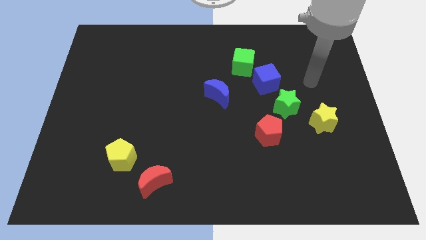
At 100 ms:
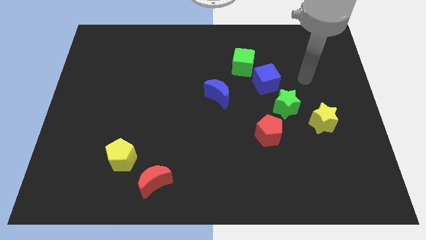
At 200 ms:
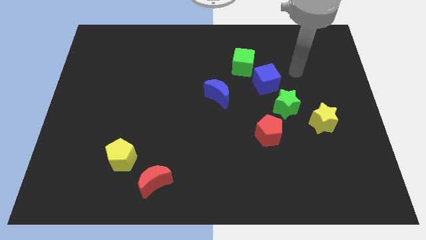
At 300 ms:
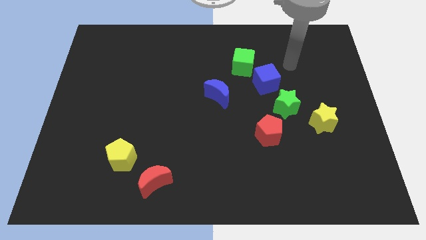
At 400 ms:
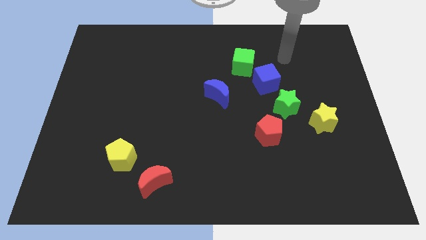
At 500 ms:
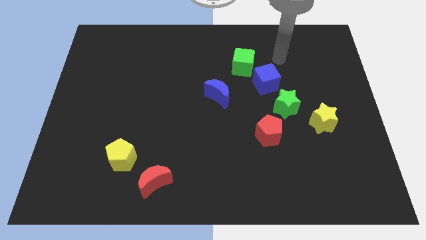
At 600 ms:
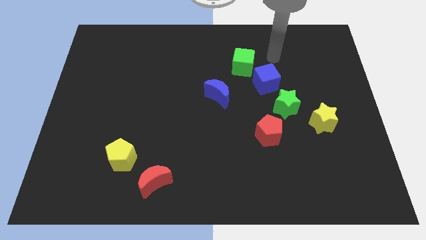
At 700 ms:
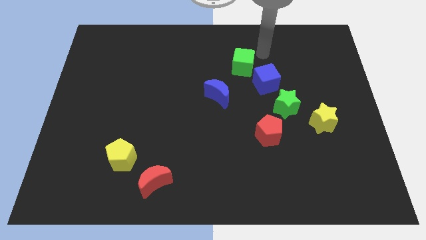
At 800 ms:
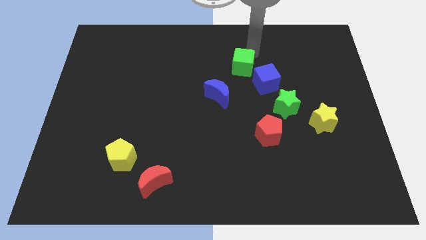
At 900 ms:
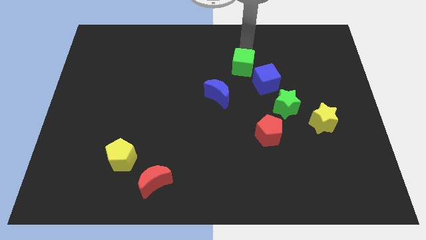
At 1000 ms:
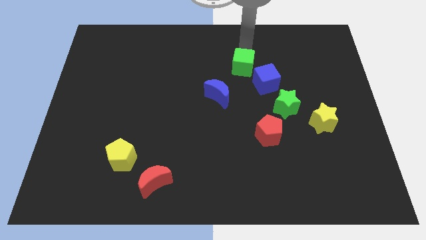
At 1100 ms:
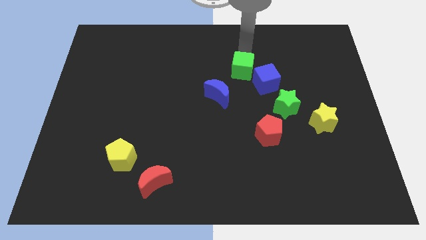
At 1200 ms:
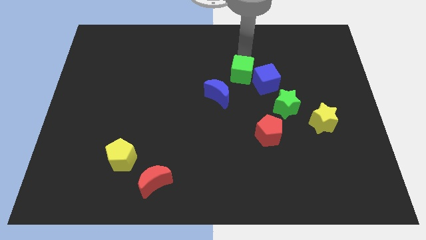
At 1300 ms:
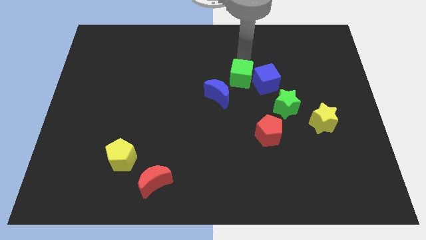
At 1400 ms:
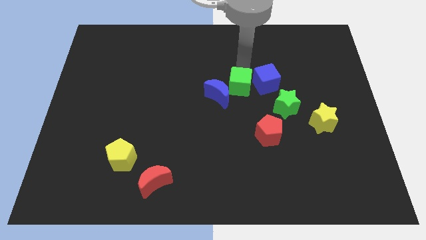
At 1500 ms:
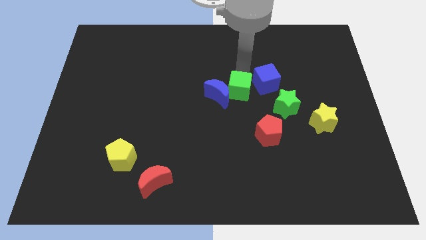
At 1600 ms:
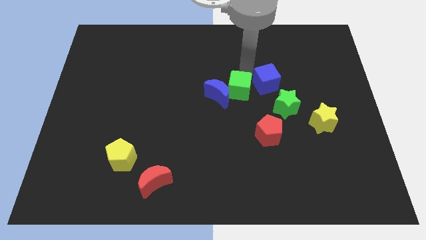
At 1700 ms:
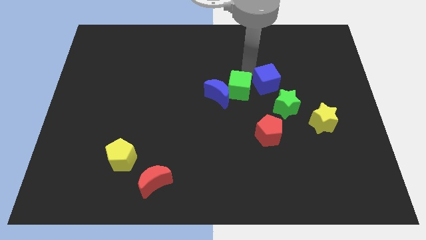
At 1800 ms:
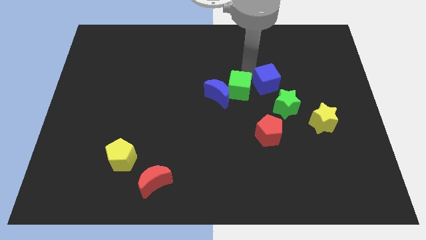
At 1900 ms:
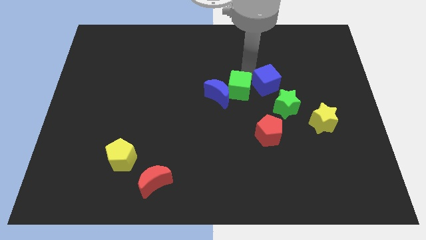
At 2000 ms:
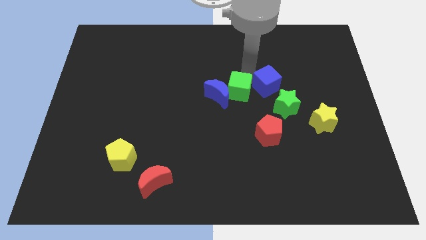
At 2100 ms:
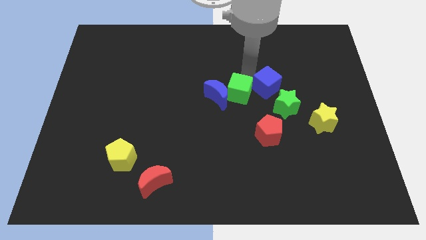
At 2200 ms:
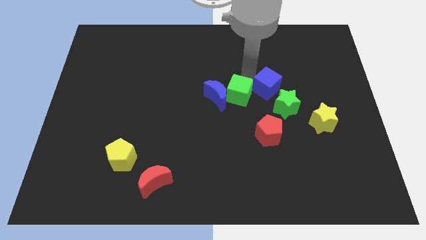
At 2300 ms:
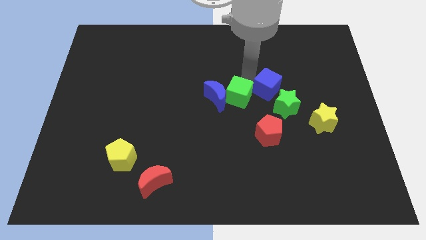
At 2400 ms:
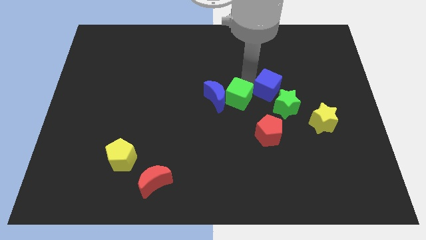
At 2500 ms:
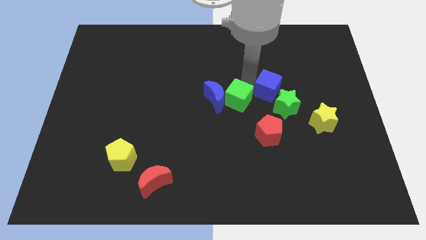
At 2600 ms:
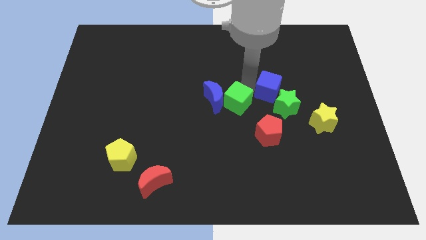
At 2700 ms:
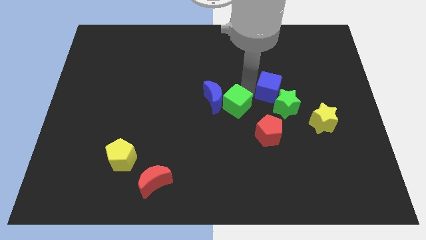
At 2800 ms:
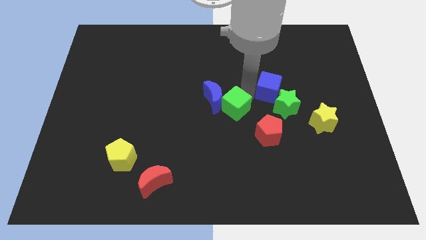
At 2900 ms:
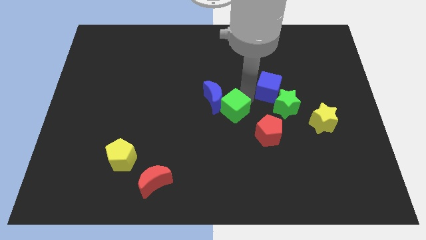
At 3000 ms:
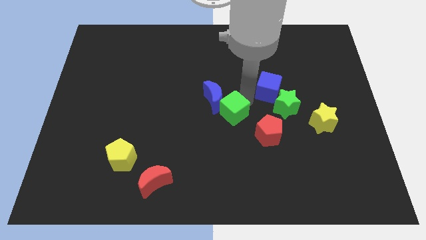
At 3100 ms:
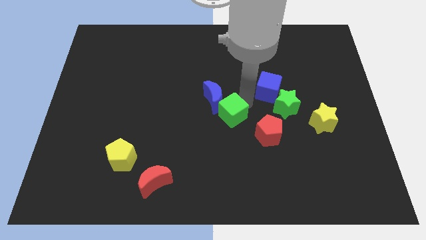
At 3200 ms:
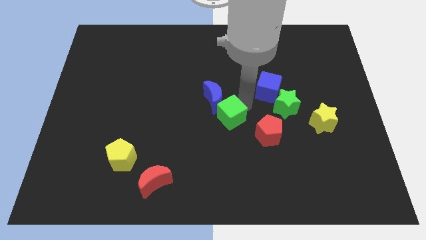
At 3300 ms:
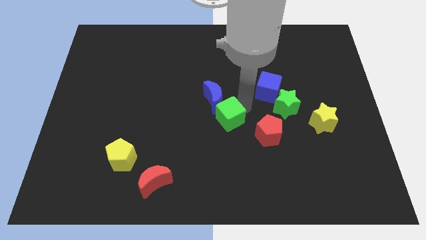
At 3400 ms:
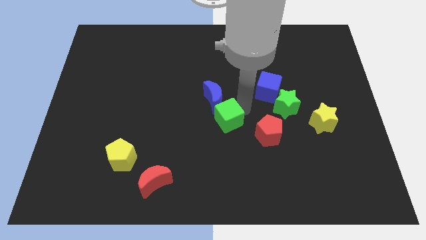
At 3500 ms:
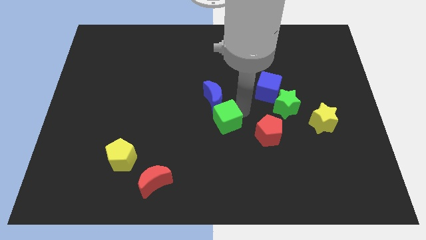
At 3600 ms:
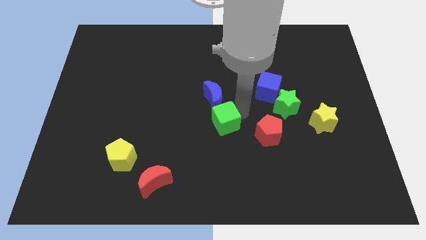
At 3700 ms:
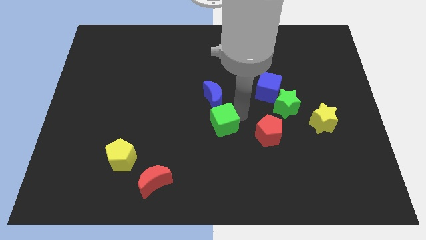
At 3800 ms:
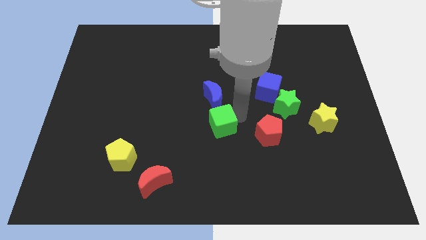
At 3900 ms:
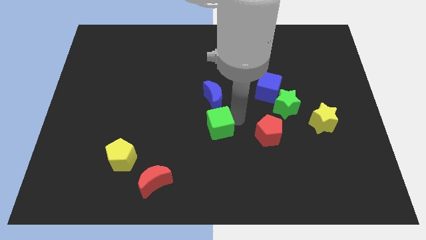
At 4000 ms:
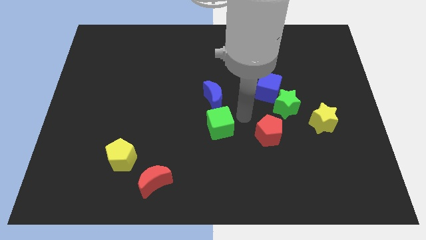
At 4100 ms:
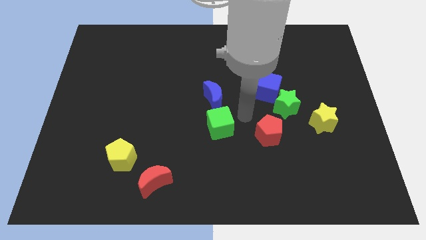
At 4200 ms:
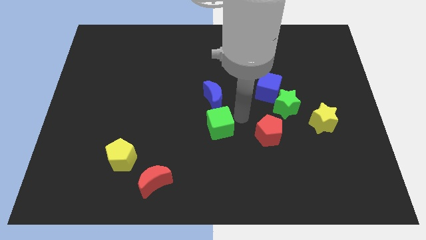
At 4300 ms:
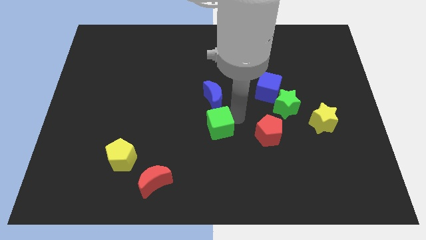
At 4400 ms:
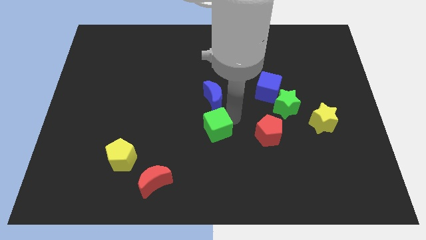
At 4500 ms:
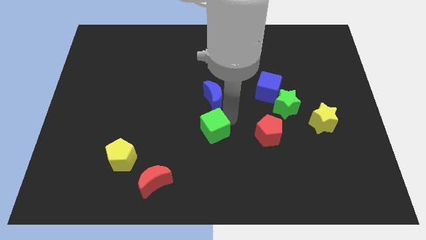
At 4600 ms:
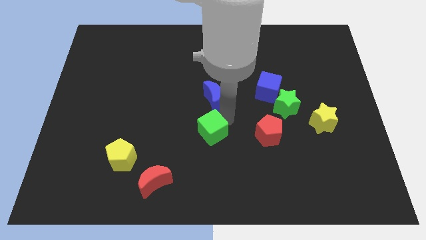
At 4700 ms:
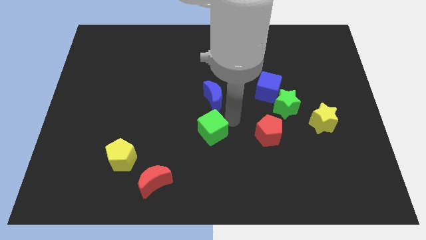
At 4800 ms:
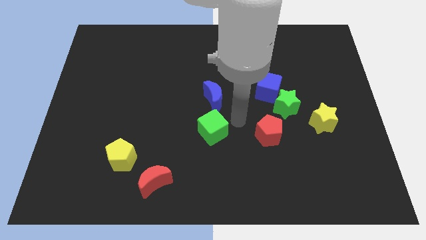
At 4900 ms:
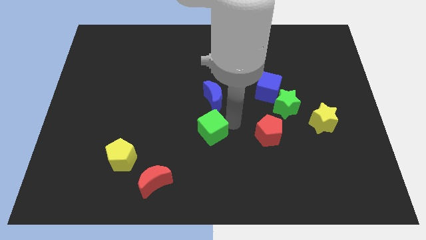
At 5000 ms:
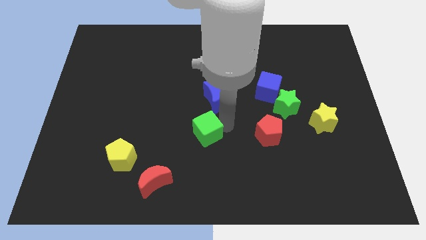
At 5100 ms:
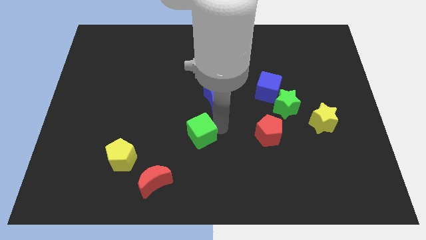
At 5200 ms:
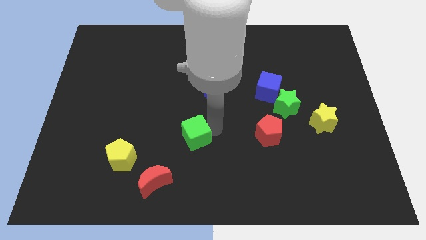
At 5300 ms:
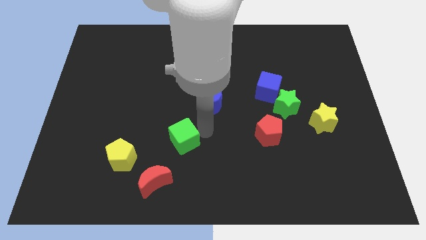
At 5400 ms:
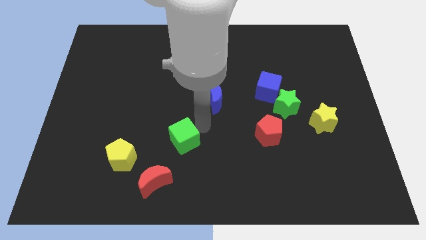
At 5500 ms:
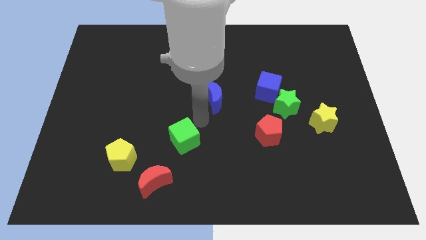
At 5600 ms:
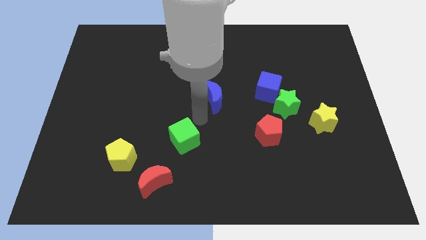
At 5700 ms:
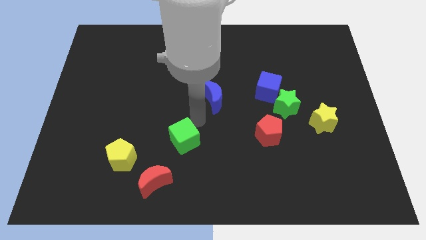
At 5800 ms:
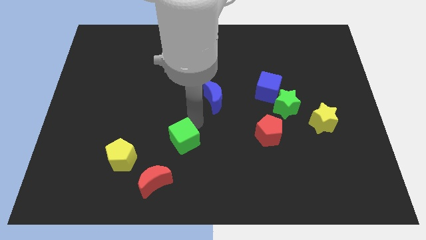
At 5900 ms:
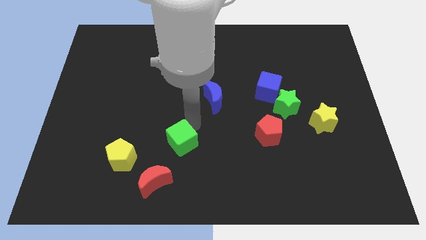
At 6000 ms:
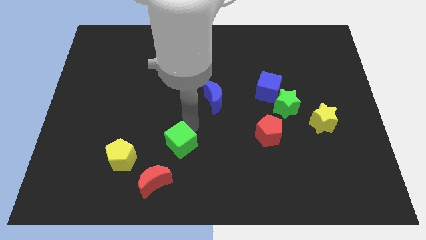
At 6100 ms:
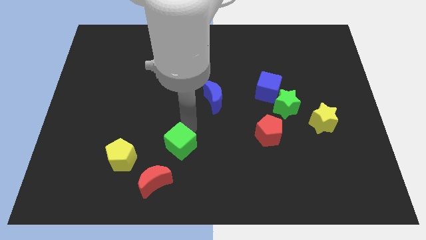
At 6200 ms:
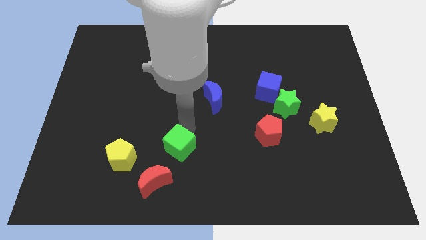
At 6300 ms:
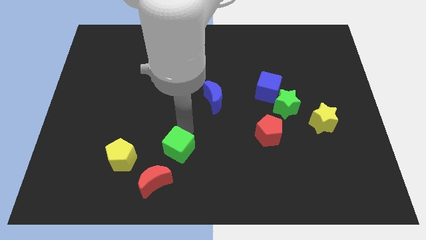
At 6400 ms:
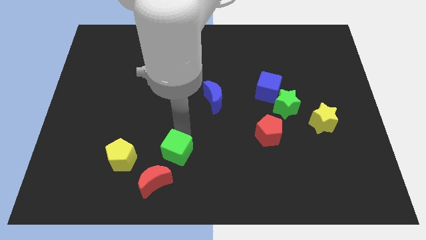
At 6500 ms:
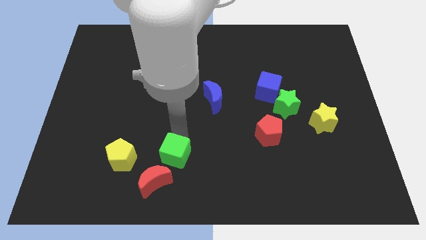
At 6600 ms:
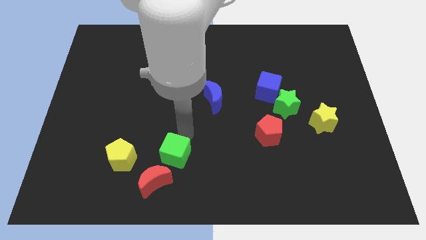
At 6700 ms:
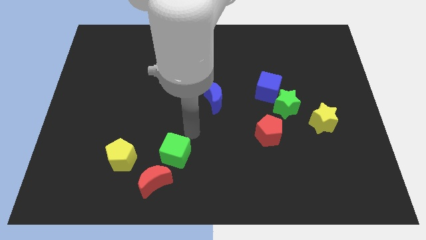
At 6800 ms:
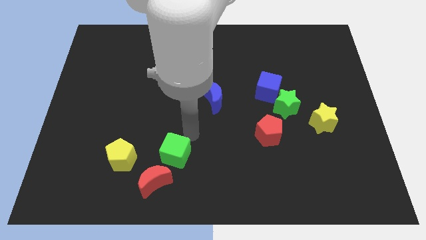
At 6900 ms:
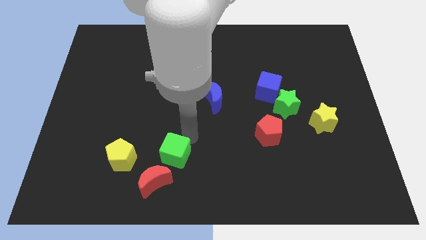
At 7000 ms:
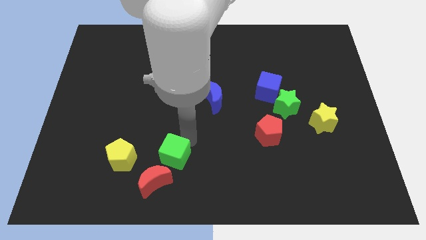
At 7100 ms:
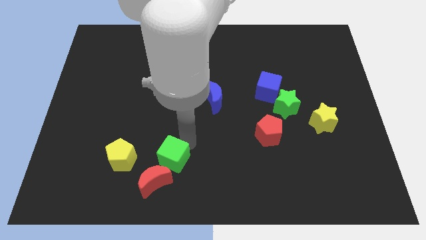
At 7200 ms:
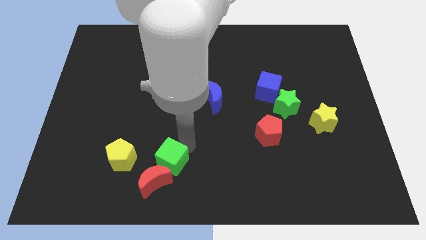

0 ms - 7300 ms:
put the green cube towards the red moon
